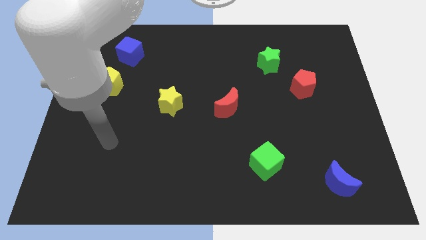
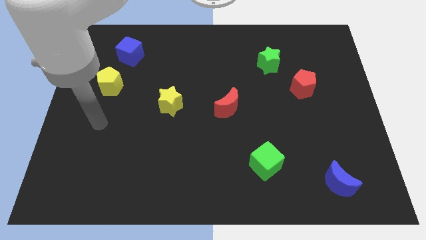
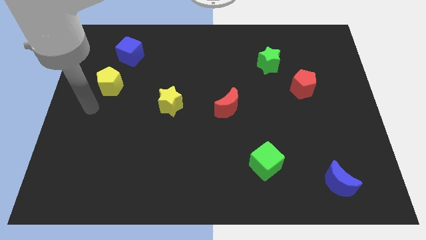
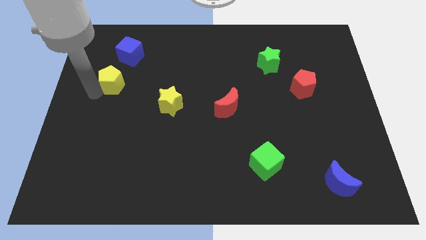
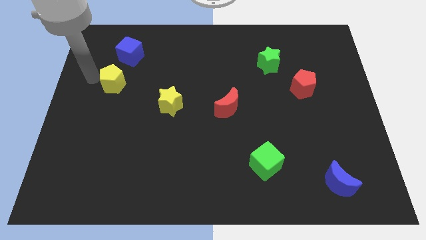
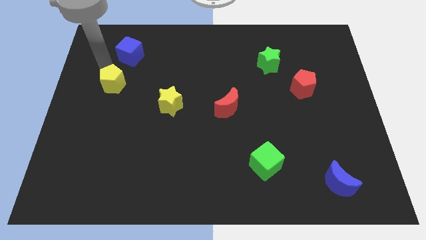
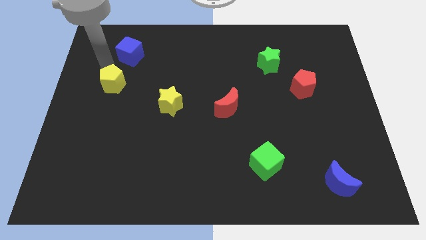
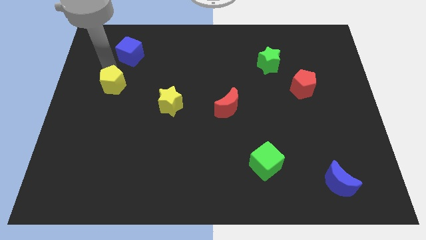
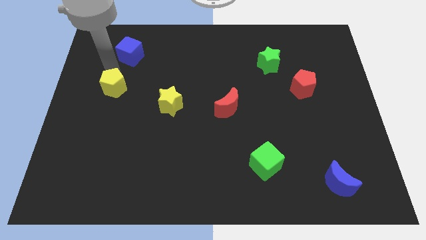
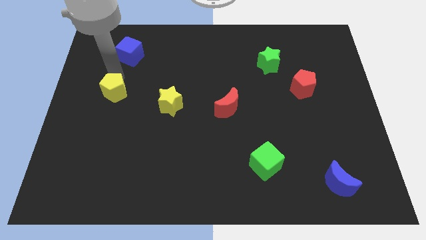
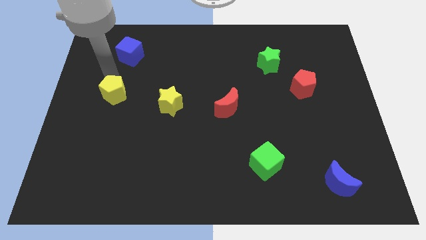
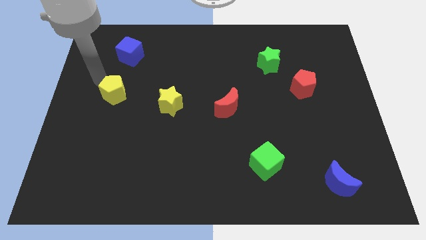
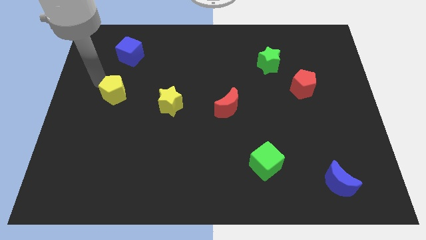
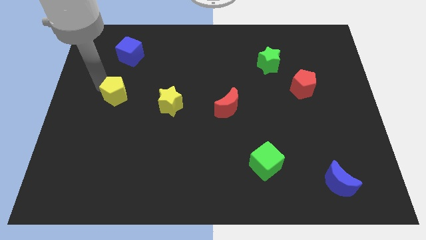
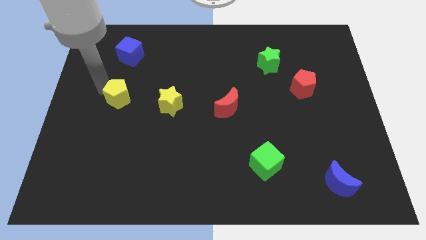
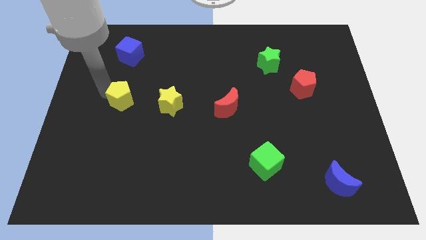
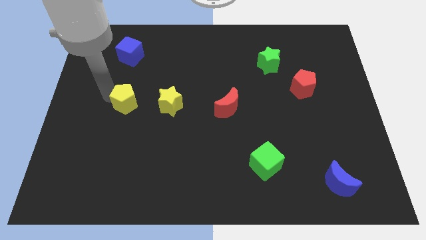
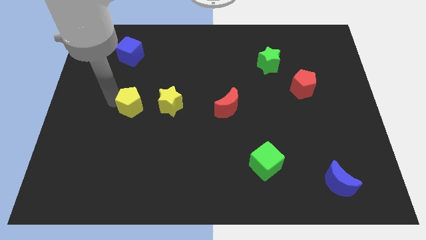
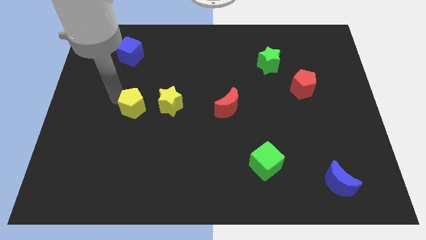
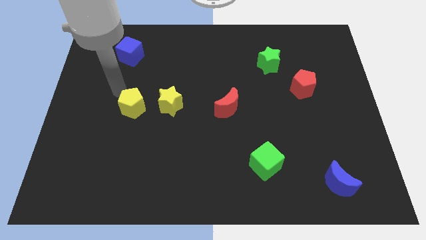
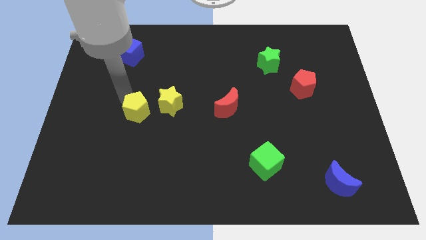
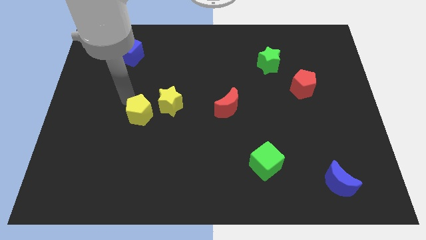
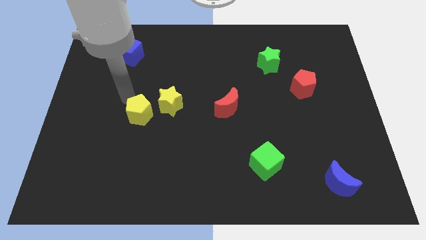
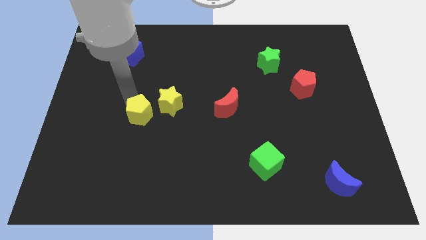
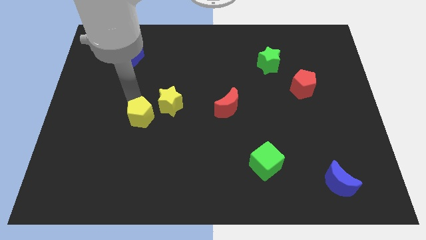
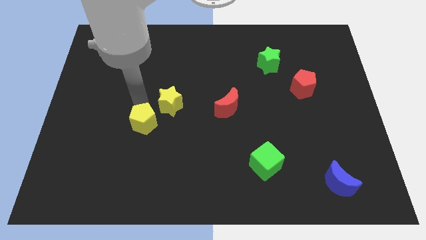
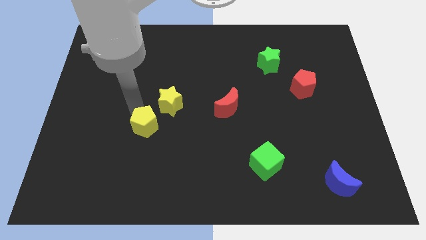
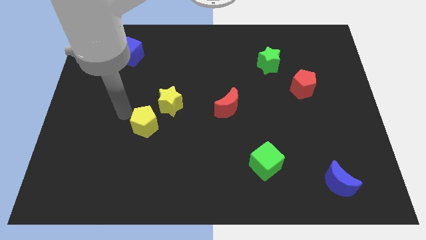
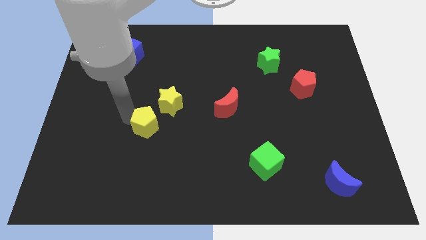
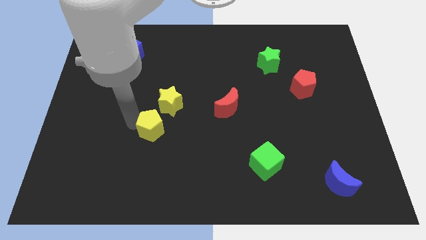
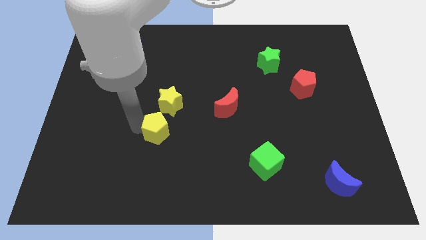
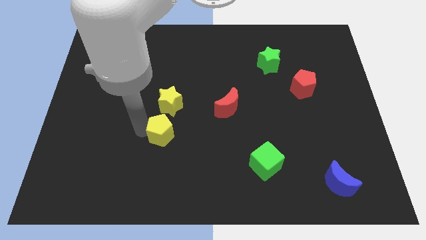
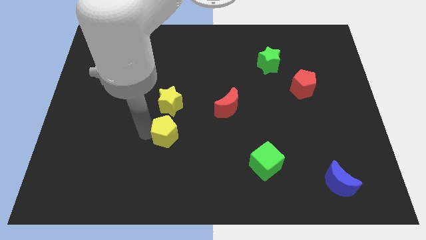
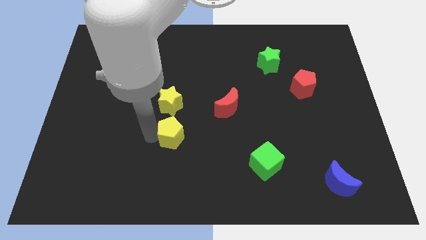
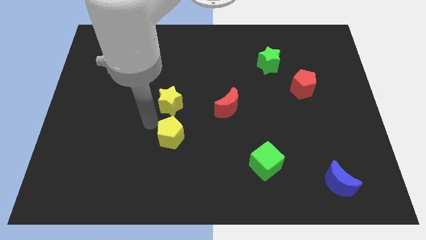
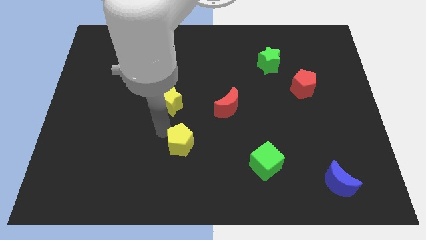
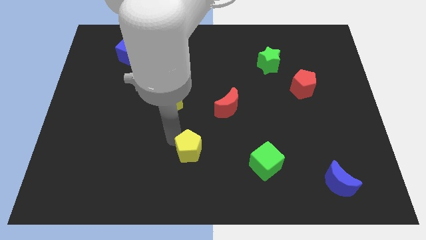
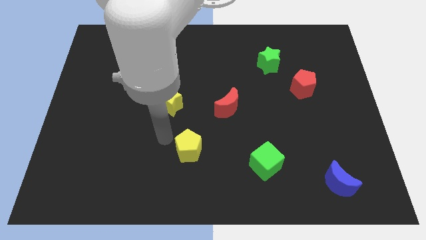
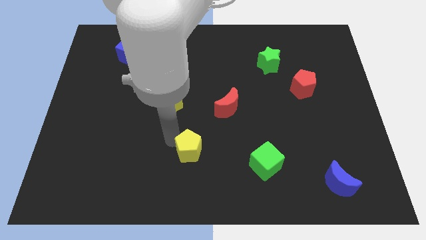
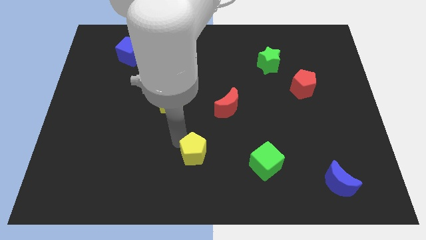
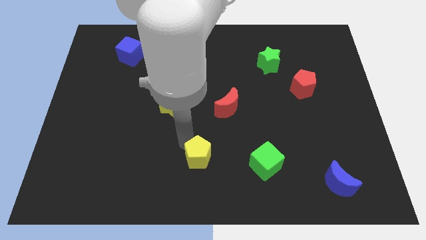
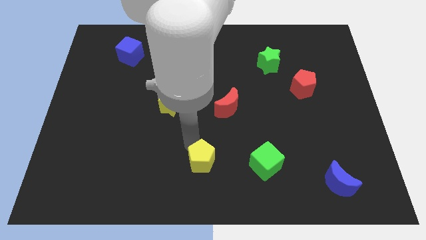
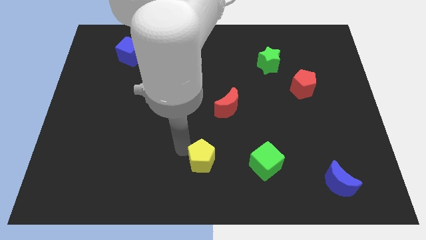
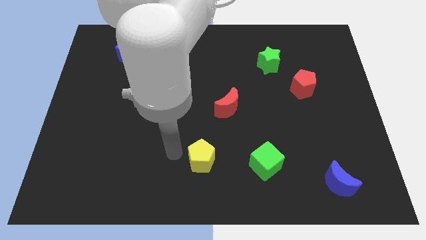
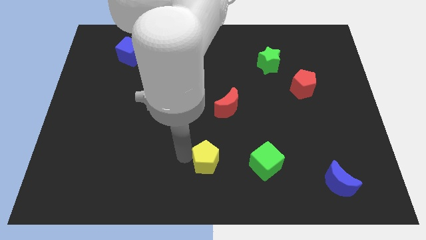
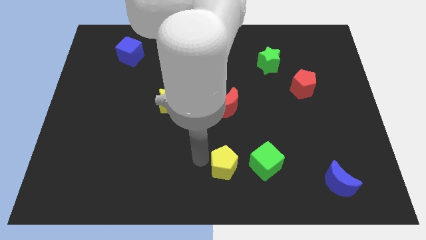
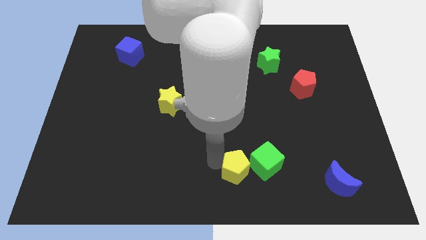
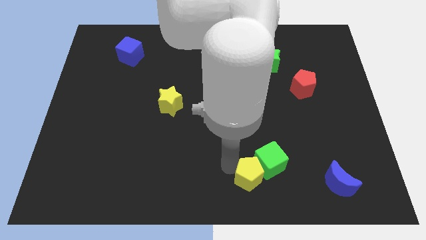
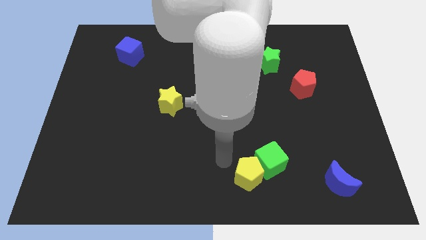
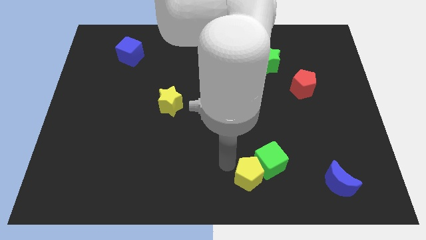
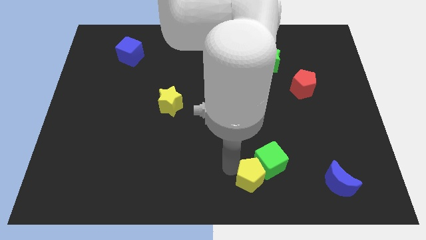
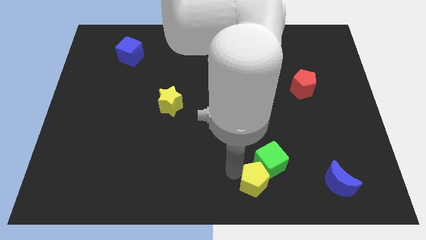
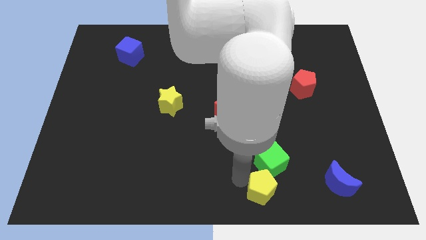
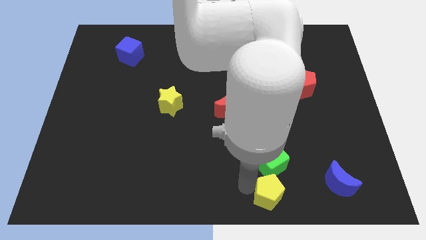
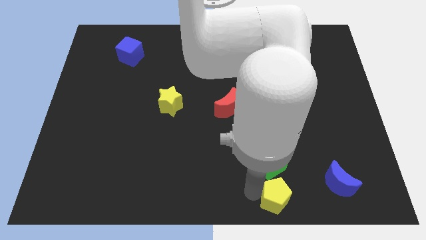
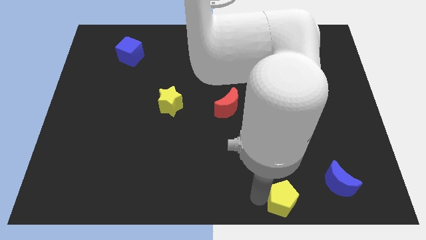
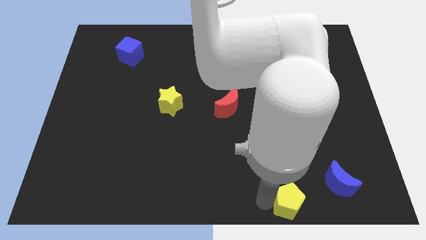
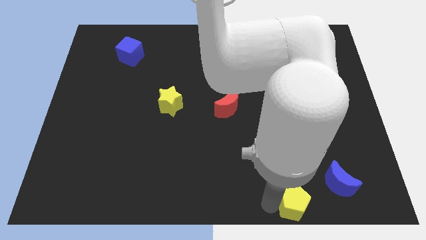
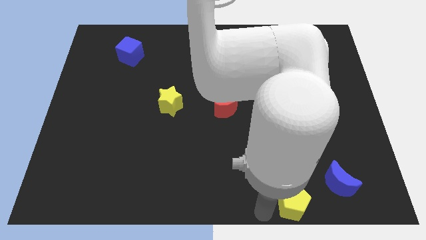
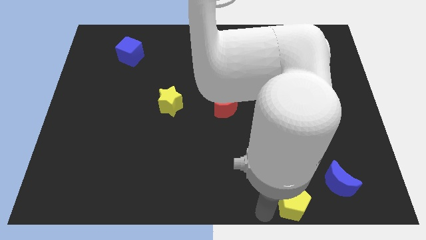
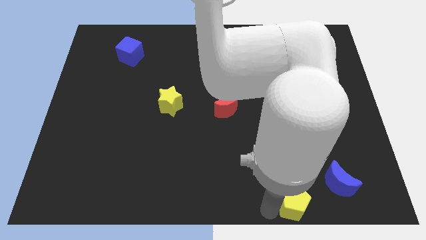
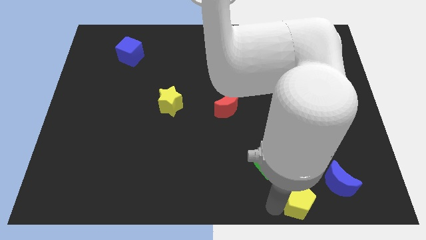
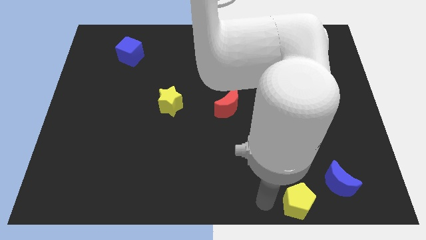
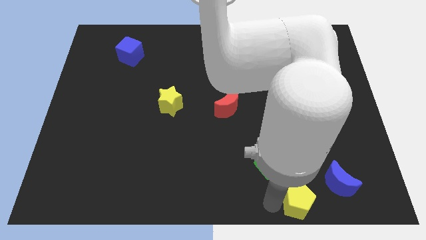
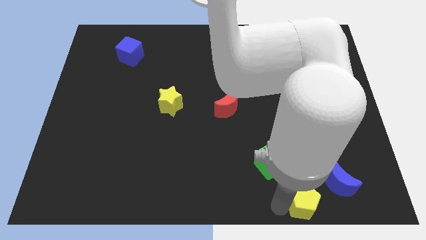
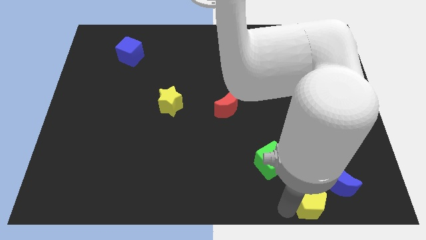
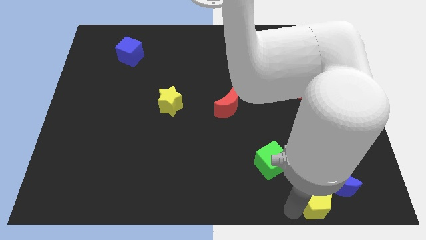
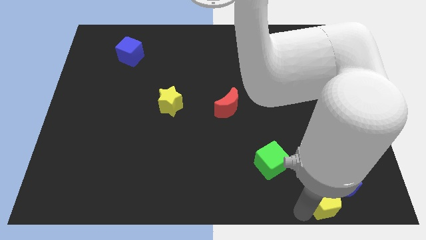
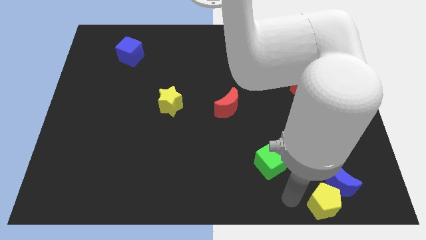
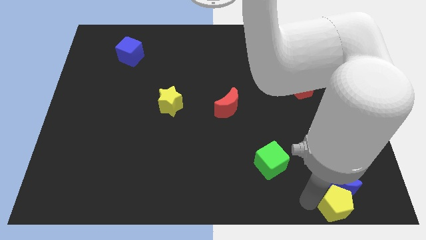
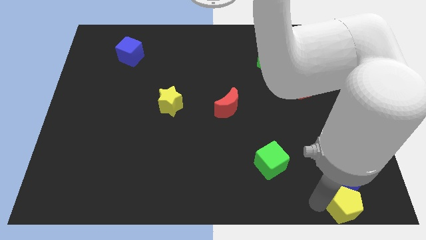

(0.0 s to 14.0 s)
put the yellow pentagon to the bottom right
